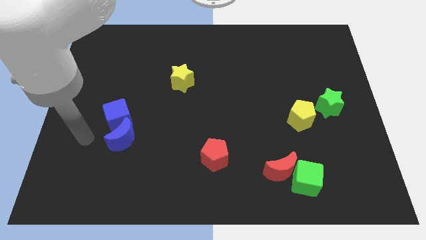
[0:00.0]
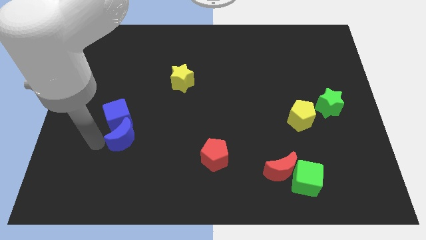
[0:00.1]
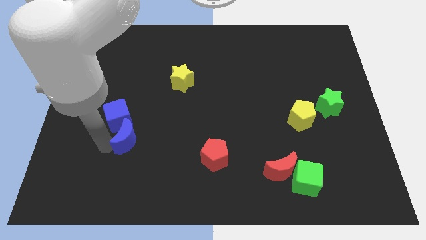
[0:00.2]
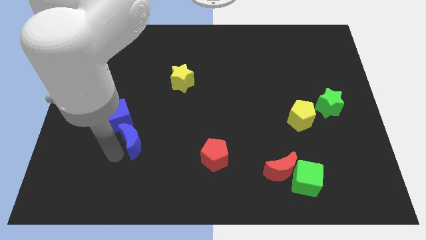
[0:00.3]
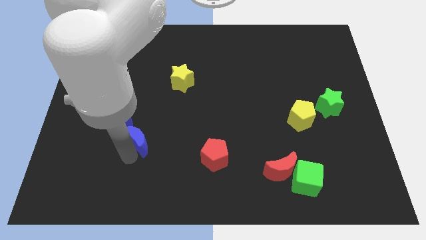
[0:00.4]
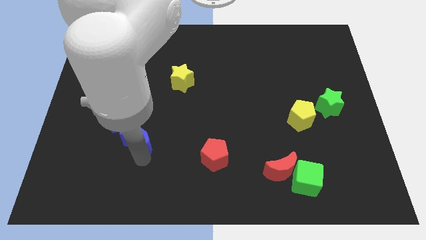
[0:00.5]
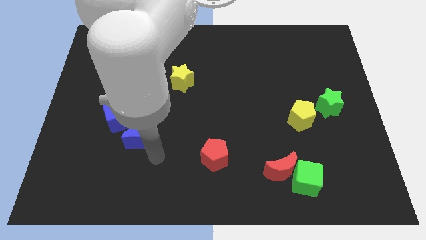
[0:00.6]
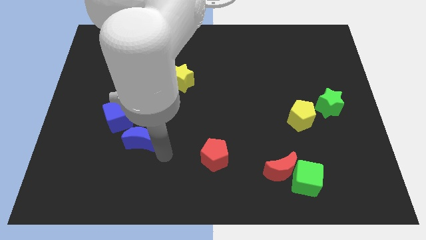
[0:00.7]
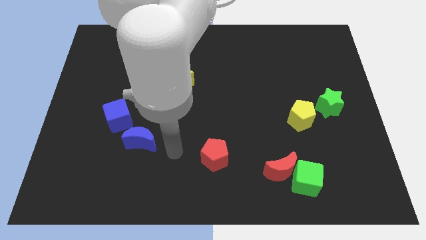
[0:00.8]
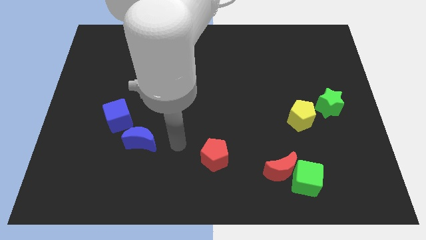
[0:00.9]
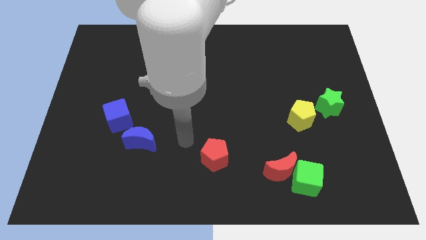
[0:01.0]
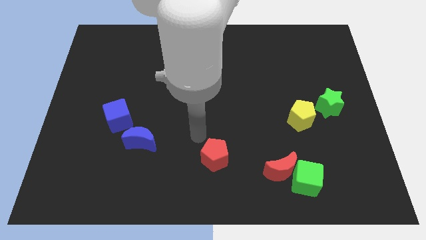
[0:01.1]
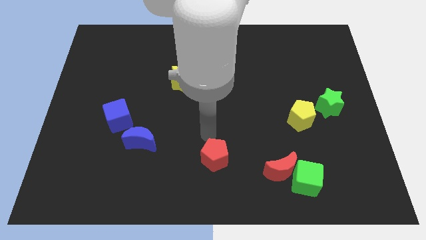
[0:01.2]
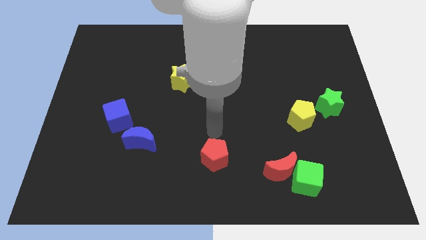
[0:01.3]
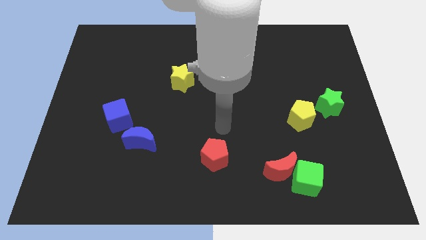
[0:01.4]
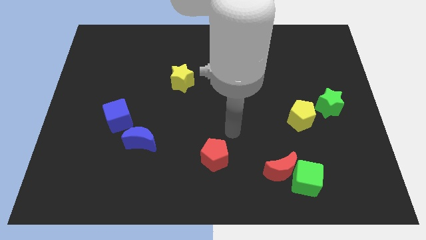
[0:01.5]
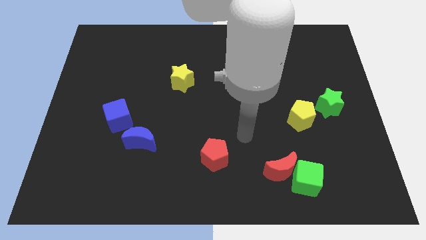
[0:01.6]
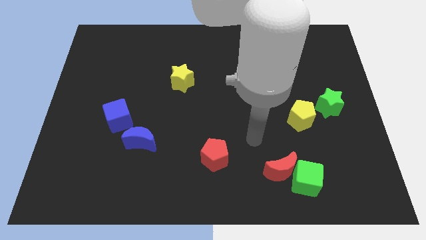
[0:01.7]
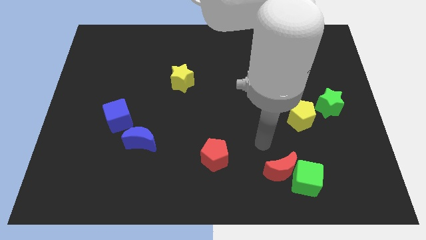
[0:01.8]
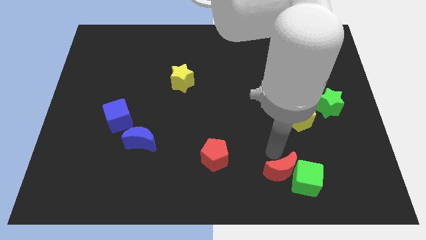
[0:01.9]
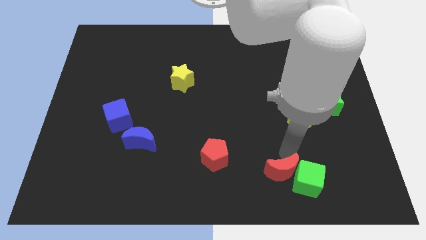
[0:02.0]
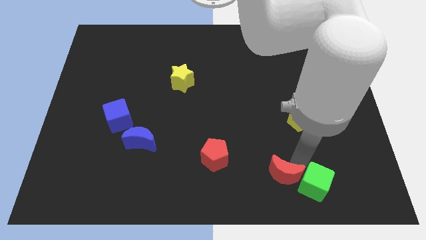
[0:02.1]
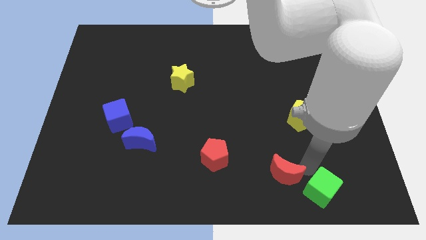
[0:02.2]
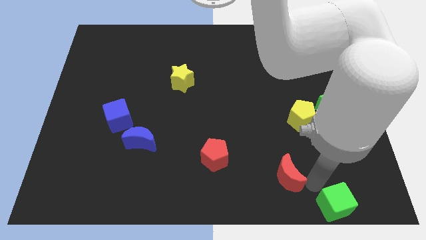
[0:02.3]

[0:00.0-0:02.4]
separate the red moon from the green cube

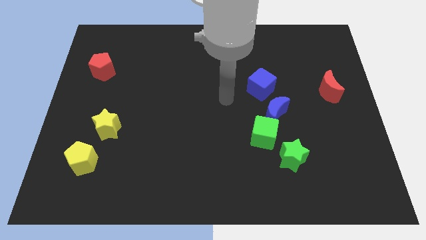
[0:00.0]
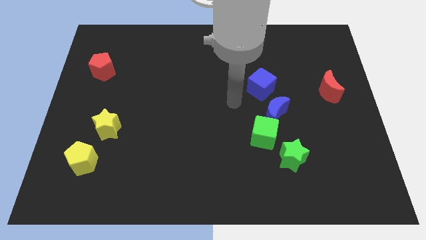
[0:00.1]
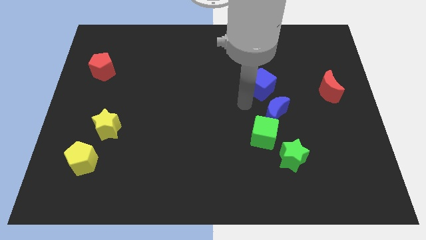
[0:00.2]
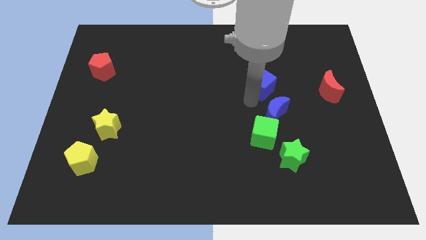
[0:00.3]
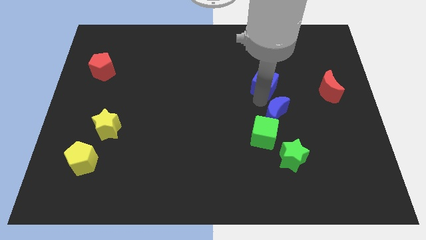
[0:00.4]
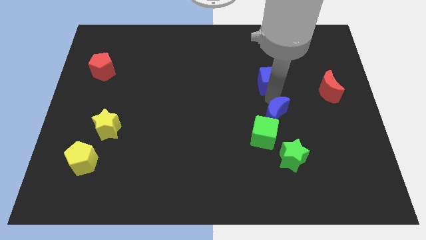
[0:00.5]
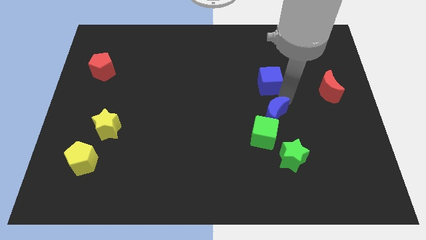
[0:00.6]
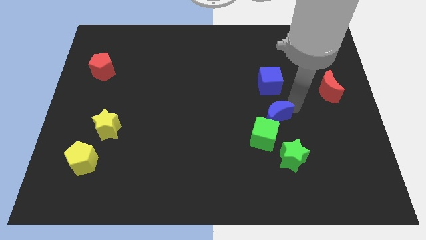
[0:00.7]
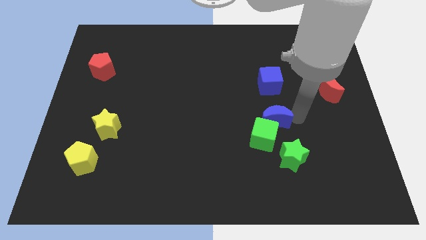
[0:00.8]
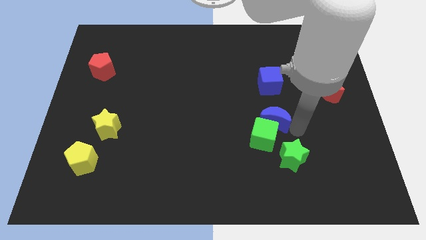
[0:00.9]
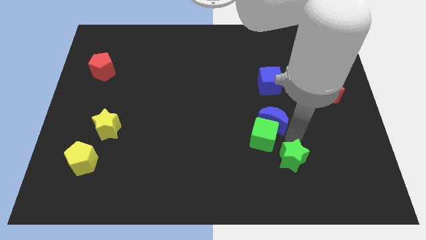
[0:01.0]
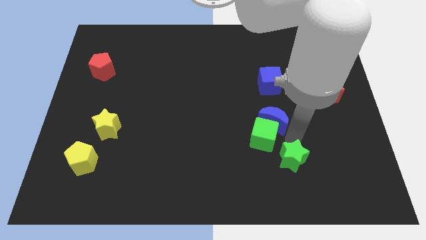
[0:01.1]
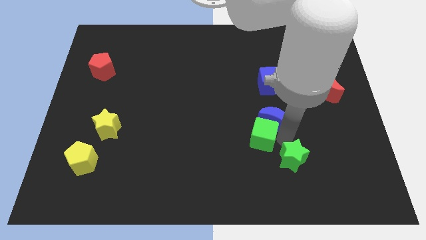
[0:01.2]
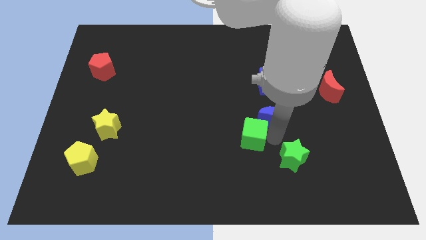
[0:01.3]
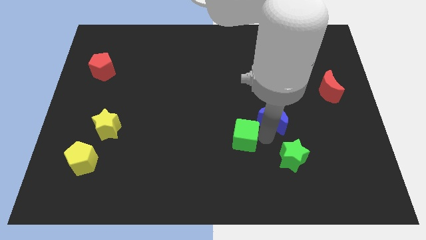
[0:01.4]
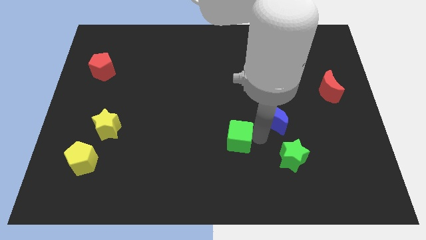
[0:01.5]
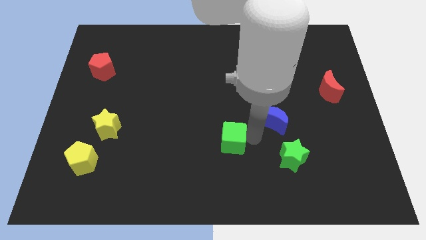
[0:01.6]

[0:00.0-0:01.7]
move the green cube away from the blue moon and green star

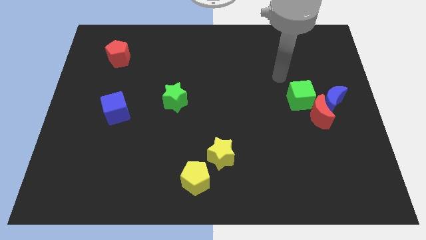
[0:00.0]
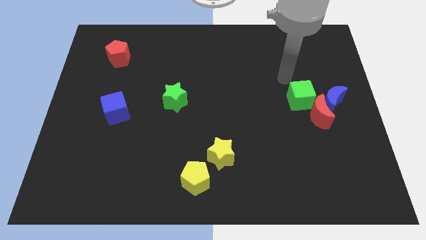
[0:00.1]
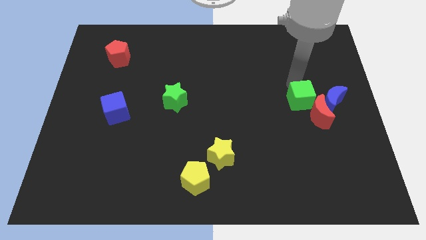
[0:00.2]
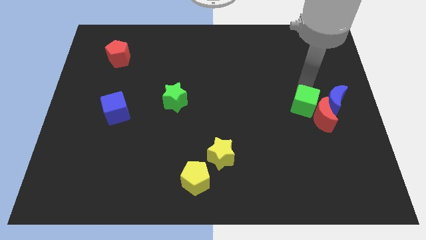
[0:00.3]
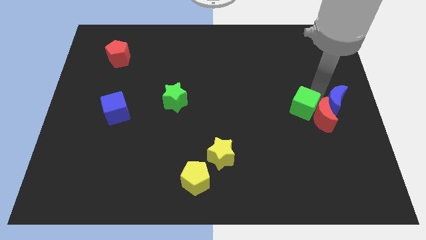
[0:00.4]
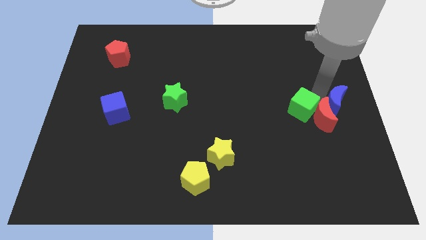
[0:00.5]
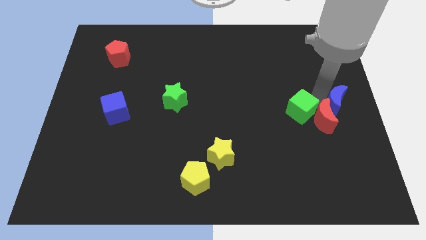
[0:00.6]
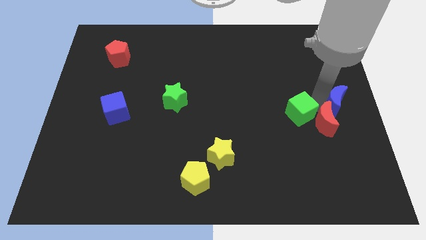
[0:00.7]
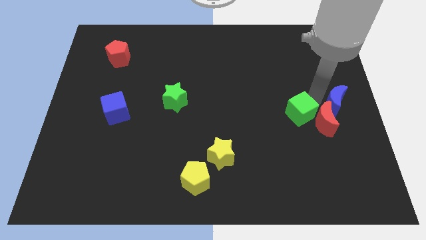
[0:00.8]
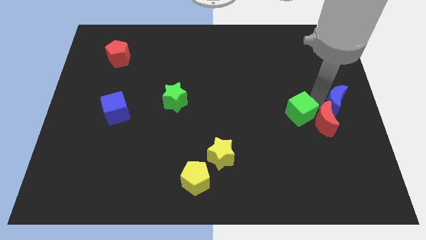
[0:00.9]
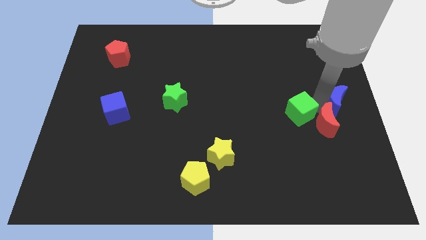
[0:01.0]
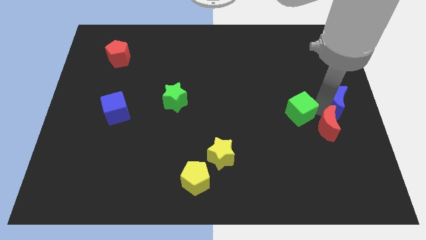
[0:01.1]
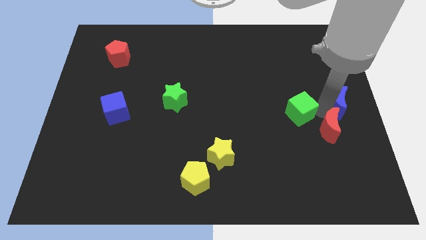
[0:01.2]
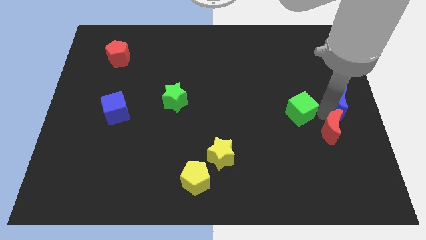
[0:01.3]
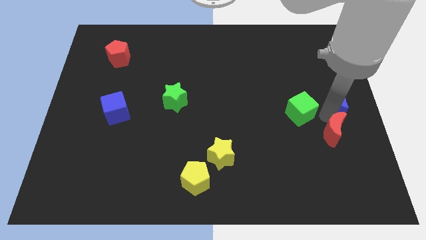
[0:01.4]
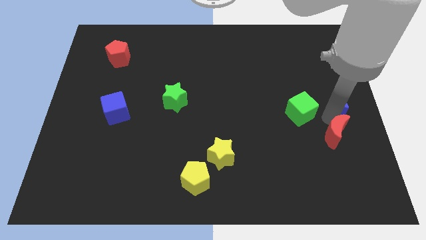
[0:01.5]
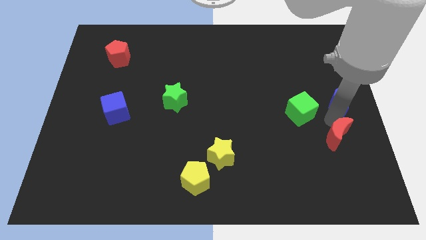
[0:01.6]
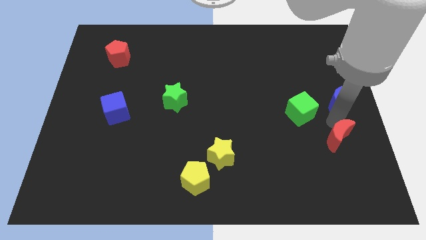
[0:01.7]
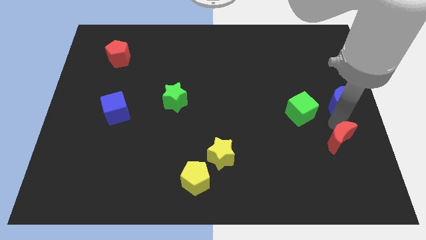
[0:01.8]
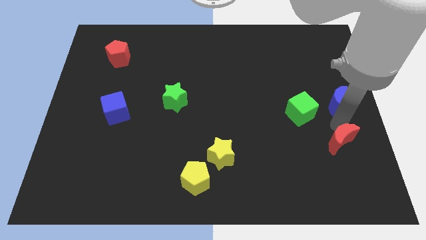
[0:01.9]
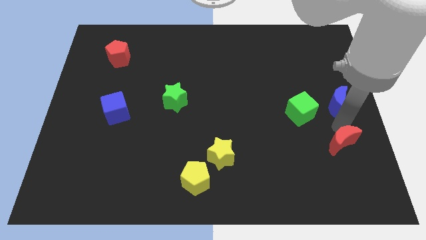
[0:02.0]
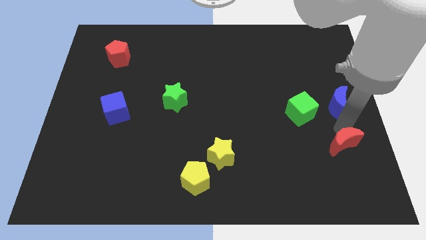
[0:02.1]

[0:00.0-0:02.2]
pull the red moon apart from the blue moon and green cube

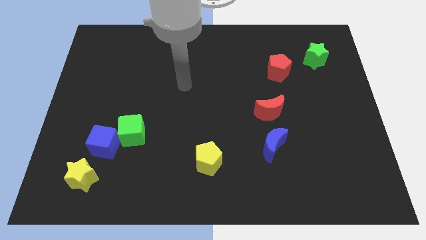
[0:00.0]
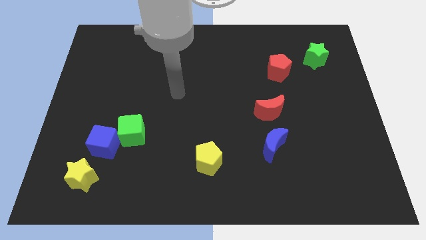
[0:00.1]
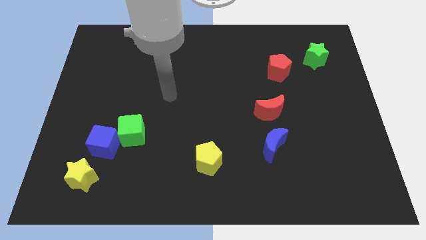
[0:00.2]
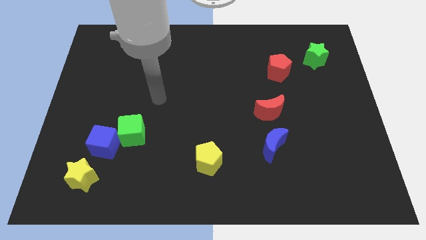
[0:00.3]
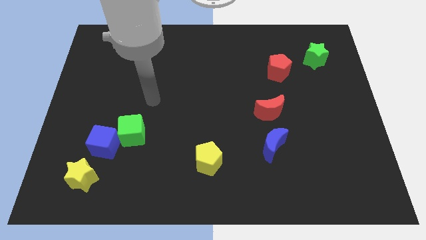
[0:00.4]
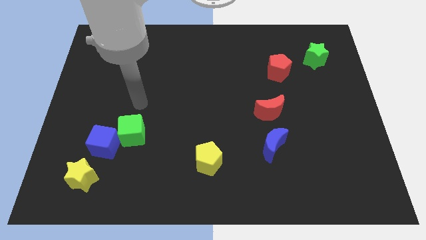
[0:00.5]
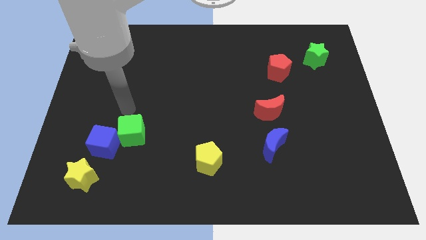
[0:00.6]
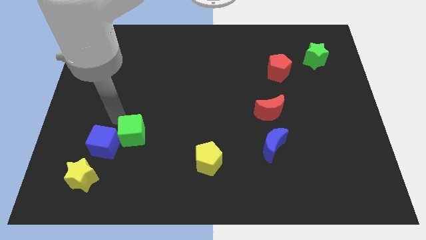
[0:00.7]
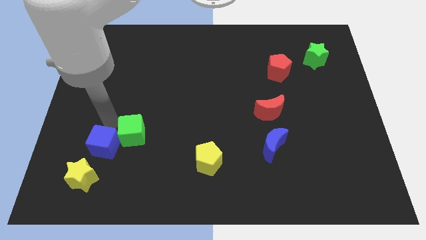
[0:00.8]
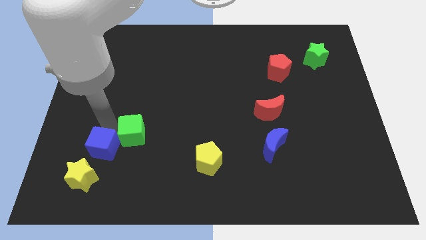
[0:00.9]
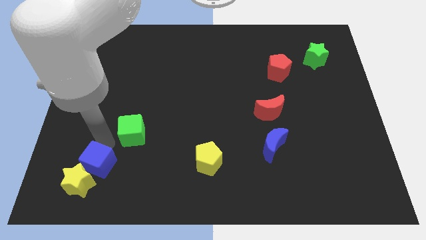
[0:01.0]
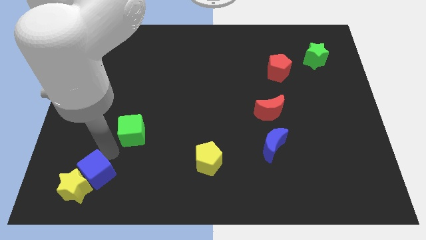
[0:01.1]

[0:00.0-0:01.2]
pull the green cube apart from the blue cube

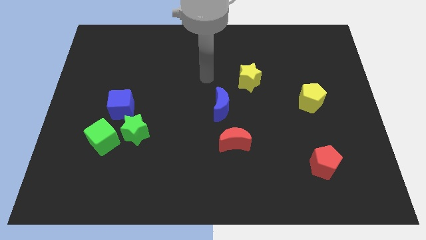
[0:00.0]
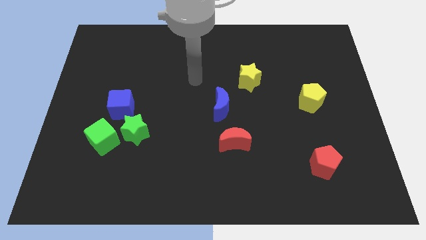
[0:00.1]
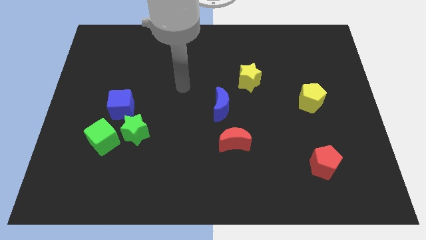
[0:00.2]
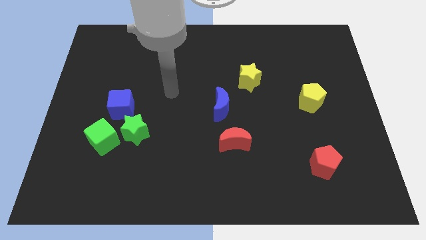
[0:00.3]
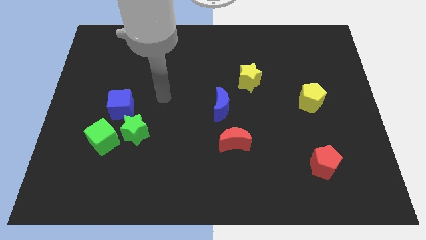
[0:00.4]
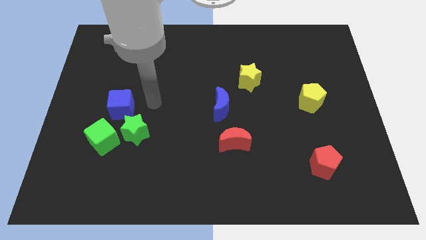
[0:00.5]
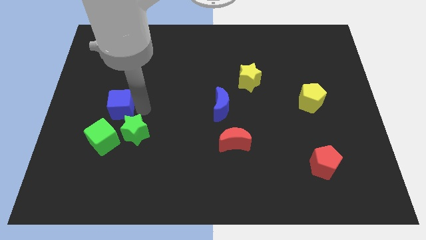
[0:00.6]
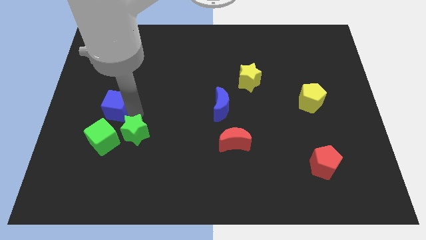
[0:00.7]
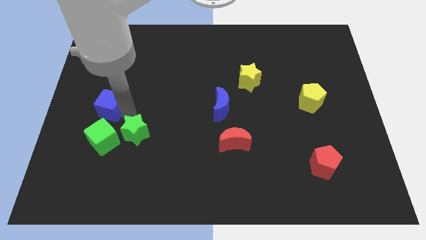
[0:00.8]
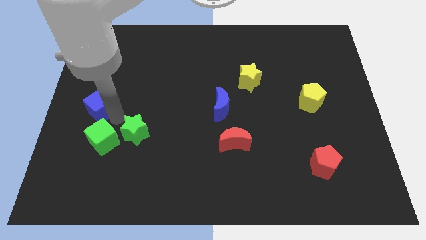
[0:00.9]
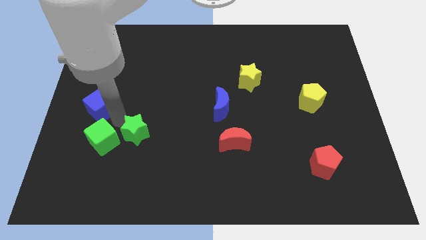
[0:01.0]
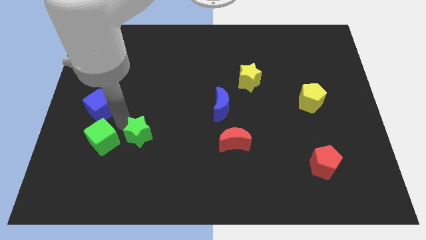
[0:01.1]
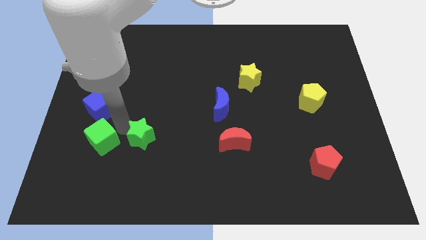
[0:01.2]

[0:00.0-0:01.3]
pull the green star apart from the green cube and blue cube

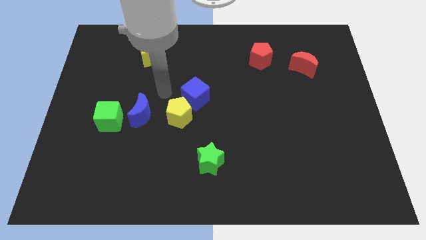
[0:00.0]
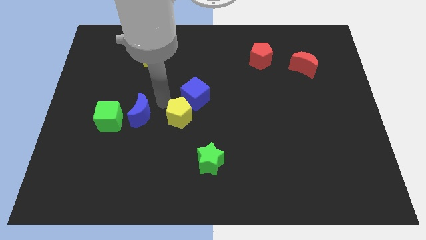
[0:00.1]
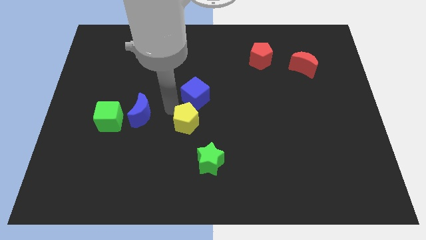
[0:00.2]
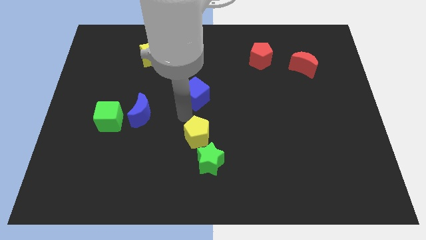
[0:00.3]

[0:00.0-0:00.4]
separate the blue cube from the yellow pentagon

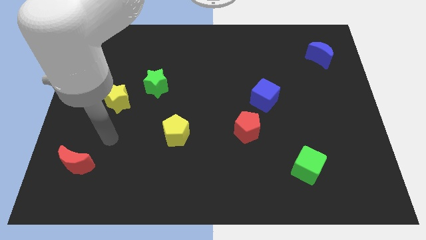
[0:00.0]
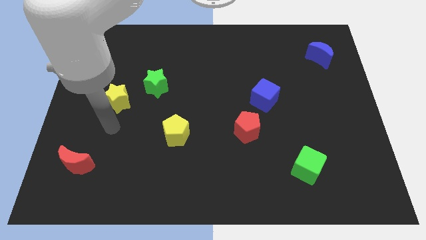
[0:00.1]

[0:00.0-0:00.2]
separate the green star from the yellow star

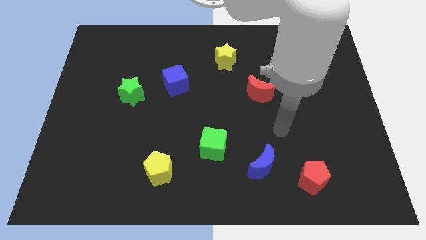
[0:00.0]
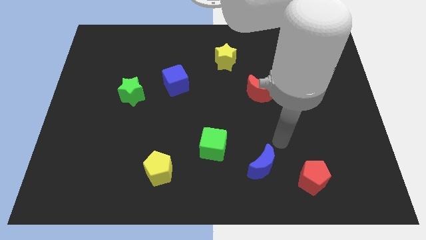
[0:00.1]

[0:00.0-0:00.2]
pull the red pentagon apart from the blue moon
